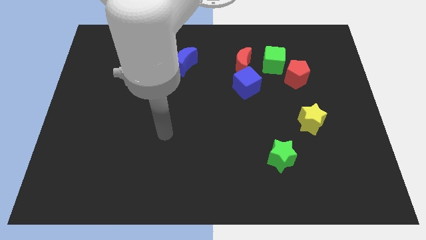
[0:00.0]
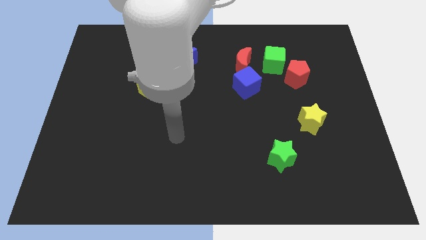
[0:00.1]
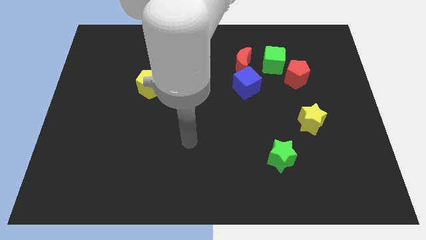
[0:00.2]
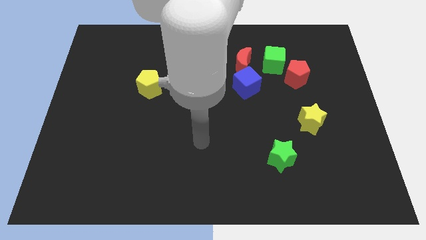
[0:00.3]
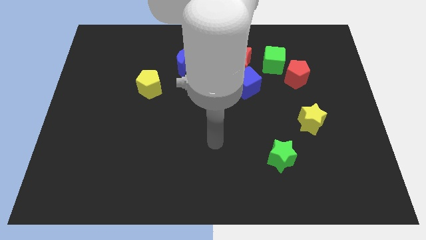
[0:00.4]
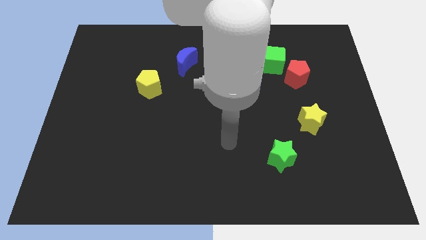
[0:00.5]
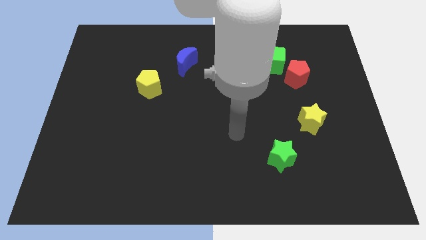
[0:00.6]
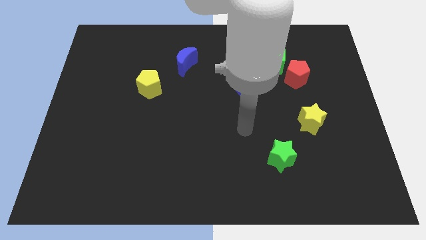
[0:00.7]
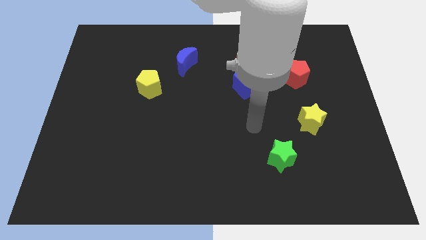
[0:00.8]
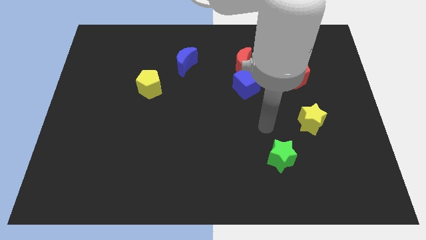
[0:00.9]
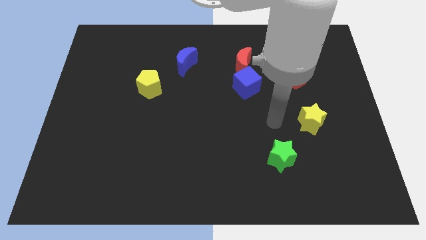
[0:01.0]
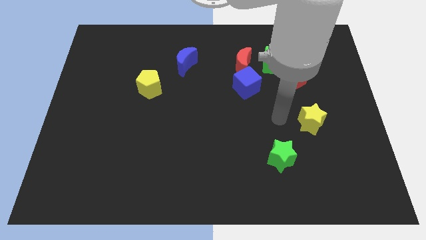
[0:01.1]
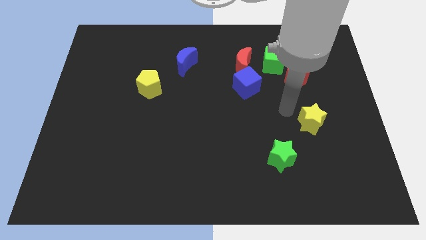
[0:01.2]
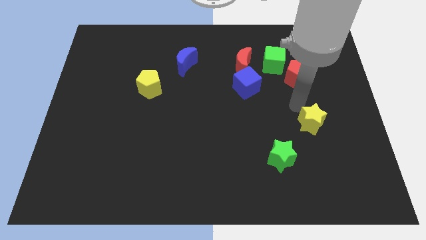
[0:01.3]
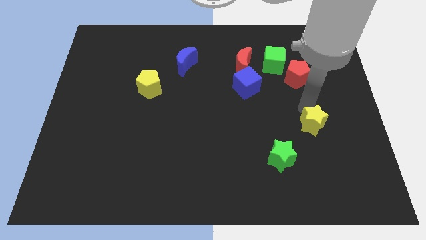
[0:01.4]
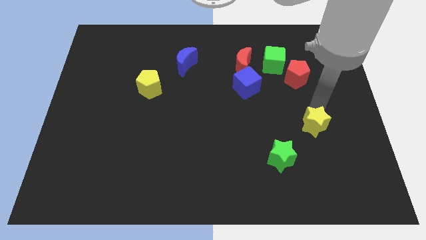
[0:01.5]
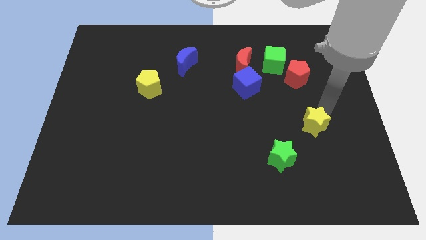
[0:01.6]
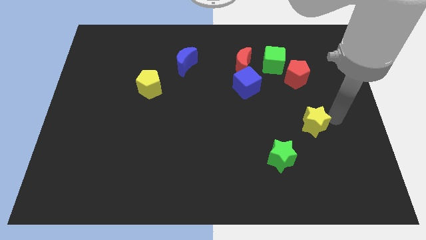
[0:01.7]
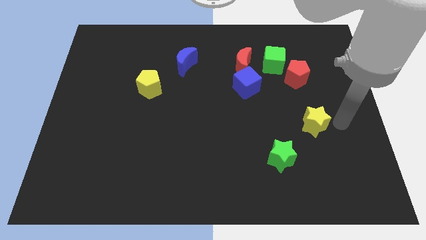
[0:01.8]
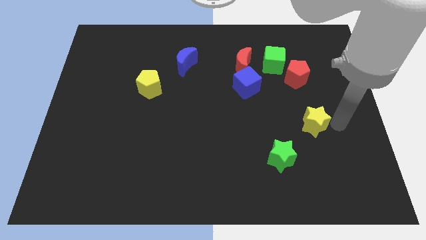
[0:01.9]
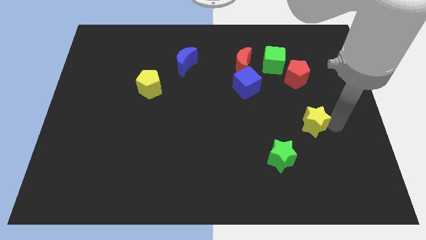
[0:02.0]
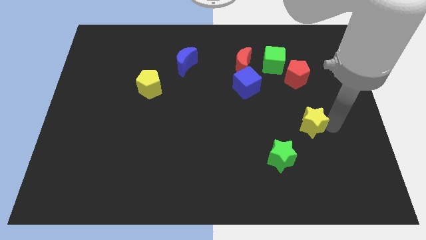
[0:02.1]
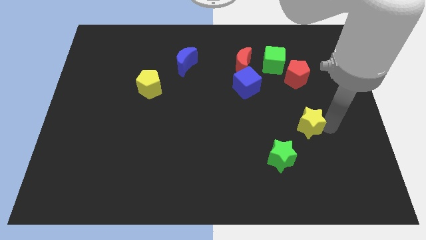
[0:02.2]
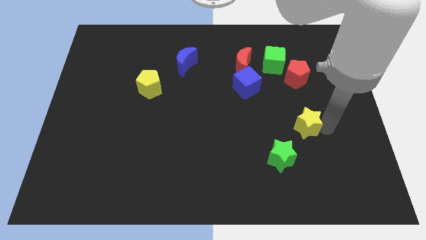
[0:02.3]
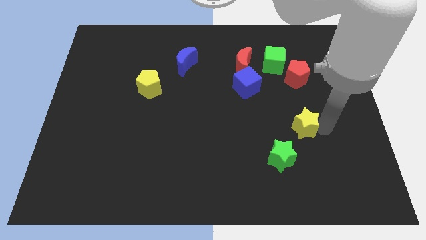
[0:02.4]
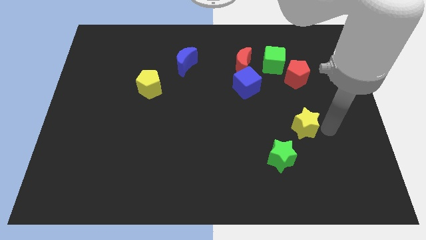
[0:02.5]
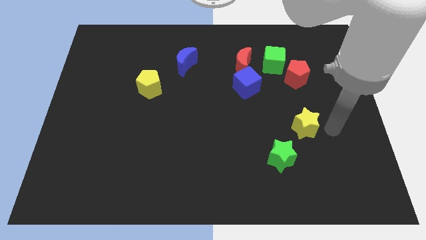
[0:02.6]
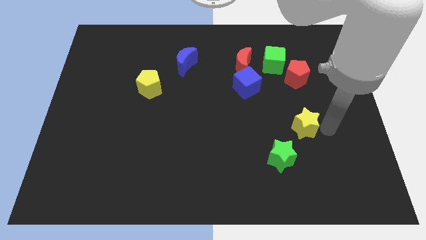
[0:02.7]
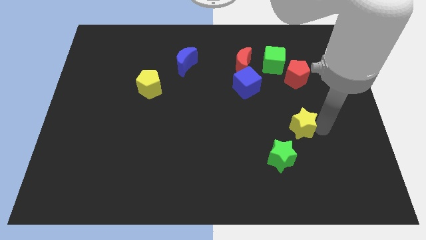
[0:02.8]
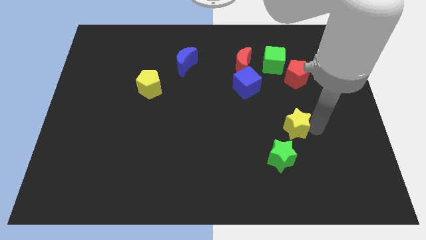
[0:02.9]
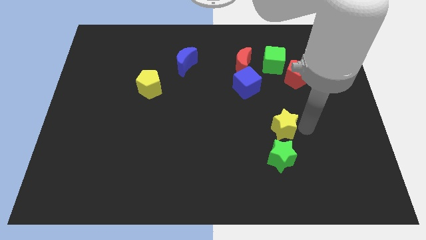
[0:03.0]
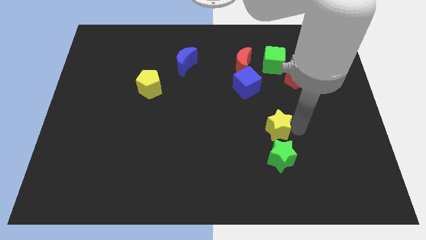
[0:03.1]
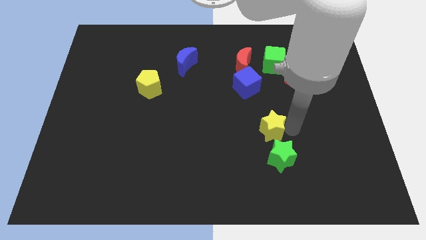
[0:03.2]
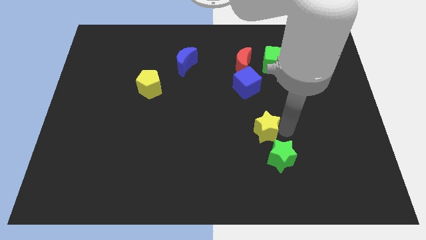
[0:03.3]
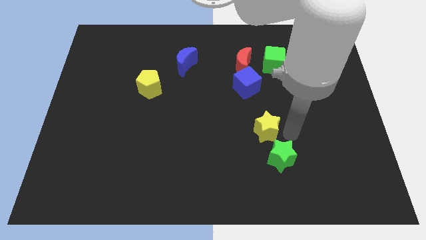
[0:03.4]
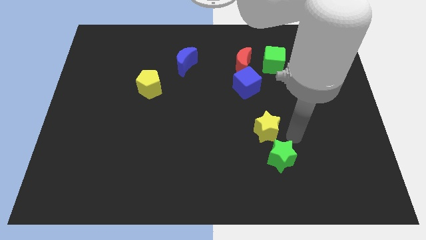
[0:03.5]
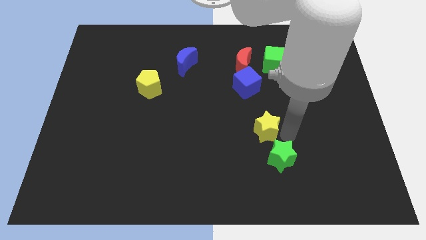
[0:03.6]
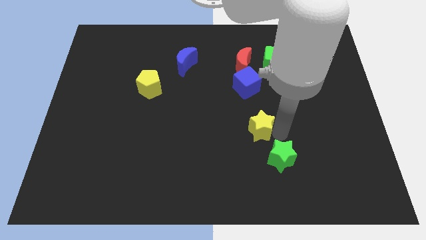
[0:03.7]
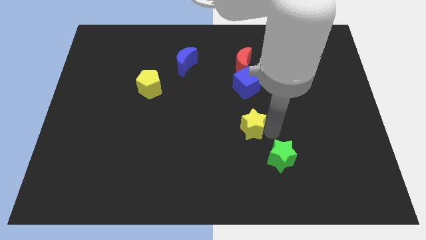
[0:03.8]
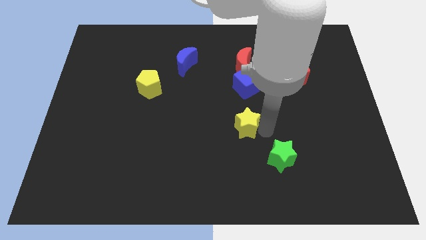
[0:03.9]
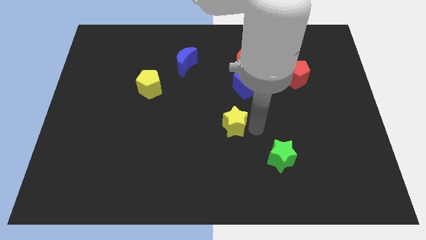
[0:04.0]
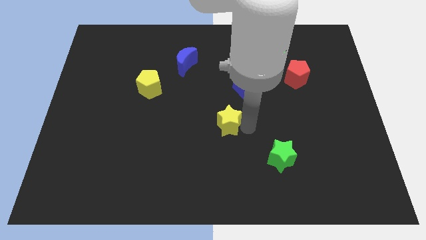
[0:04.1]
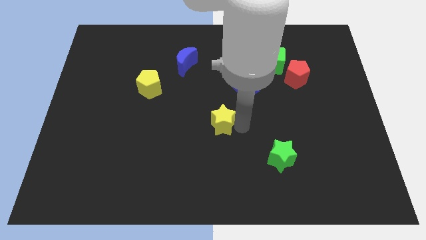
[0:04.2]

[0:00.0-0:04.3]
slide the yellow star left

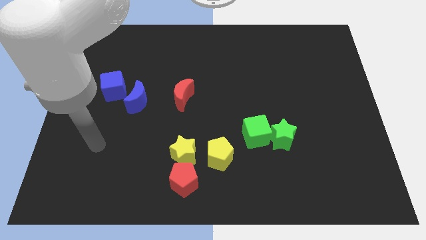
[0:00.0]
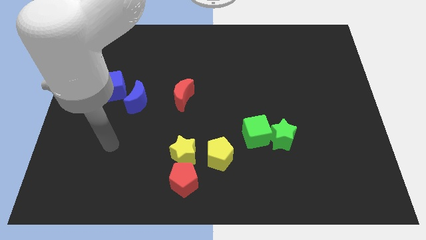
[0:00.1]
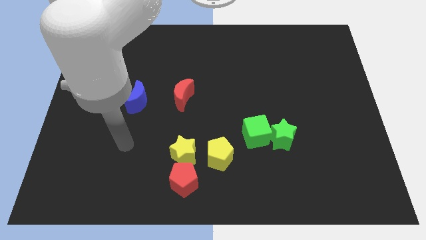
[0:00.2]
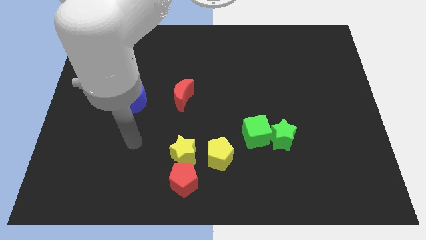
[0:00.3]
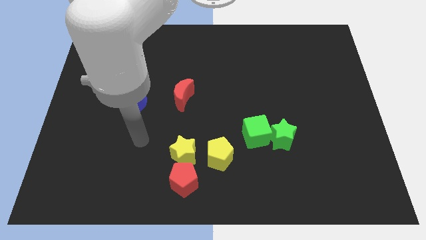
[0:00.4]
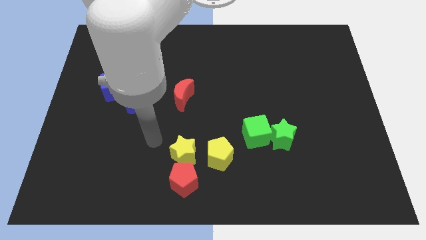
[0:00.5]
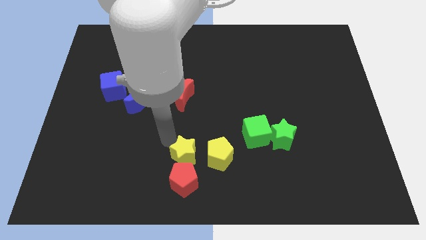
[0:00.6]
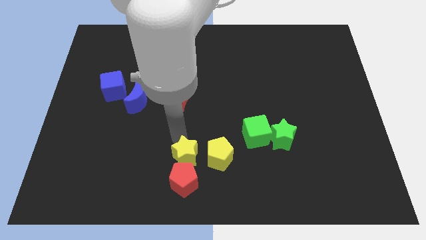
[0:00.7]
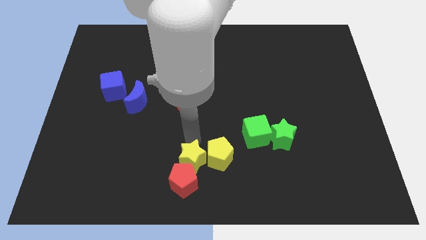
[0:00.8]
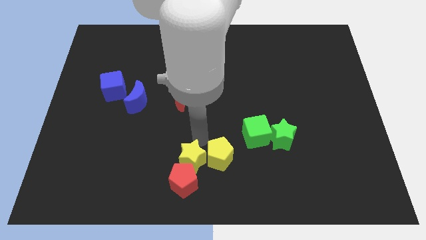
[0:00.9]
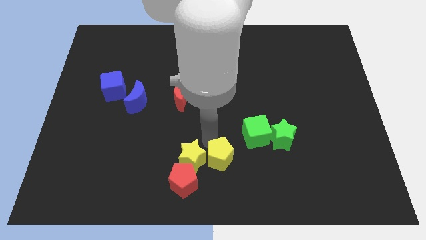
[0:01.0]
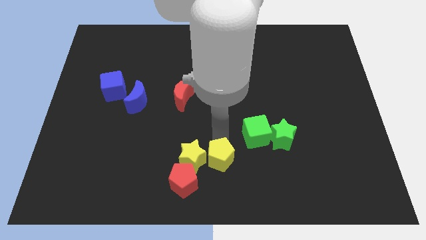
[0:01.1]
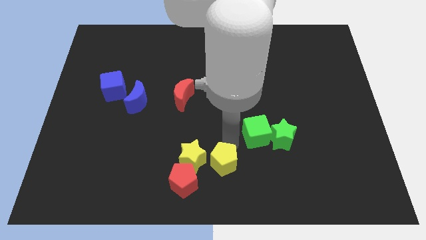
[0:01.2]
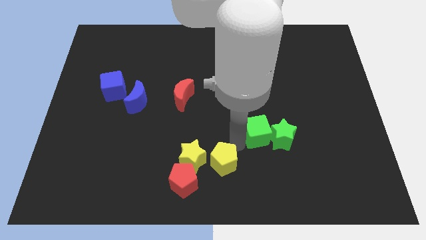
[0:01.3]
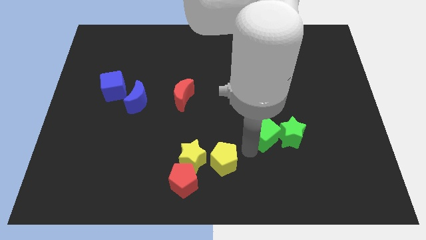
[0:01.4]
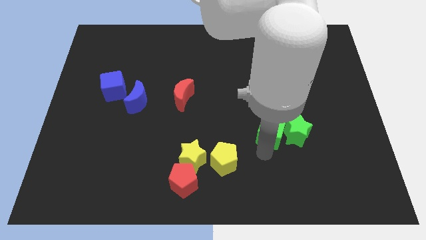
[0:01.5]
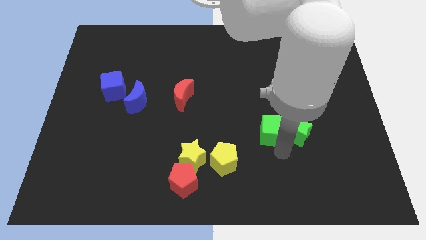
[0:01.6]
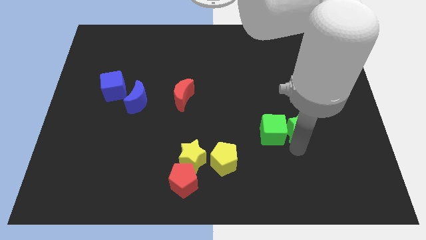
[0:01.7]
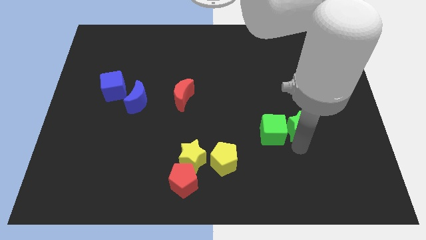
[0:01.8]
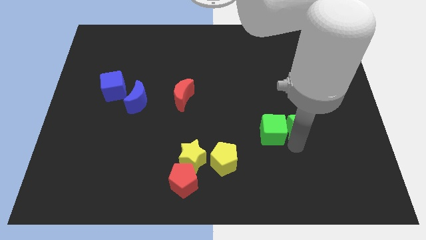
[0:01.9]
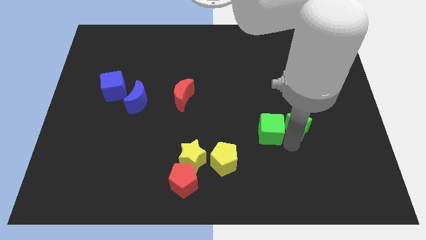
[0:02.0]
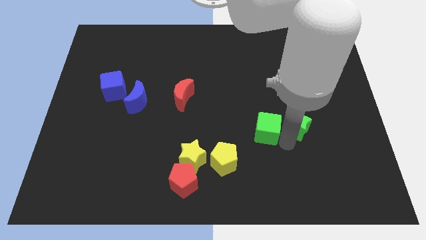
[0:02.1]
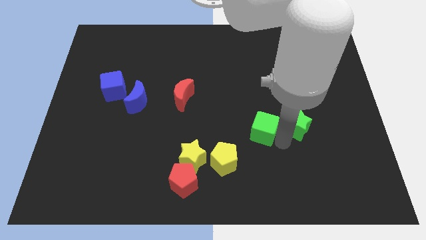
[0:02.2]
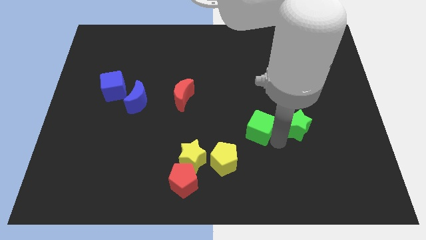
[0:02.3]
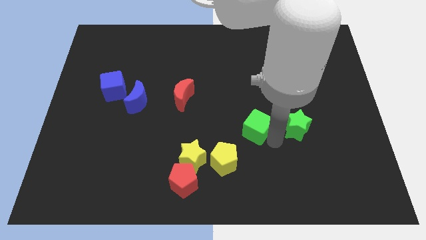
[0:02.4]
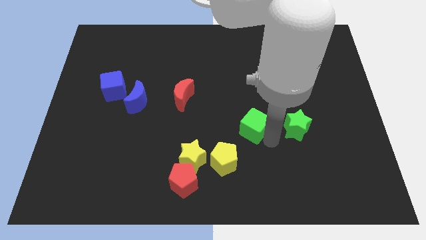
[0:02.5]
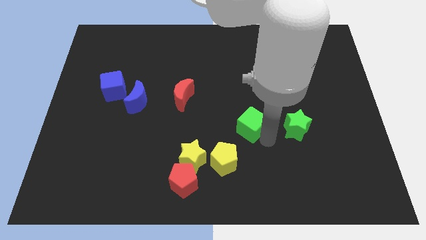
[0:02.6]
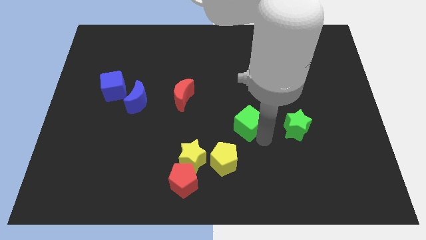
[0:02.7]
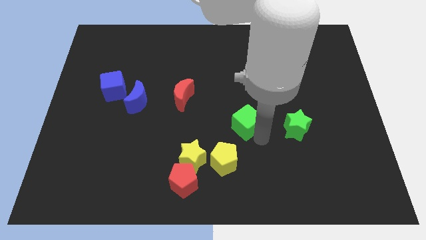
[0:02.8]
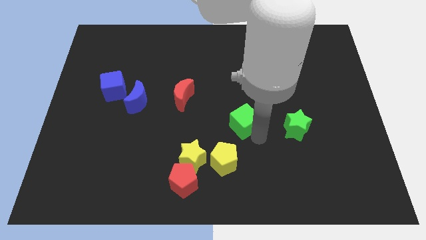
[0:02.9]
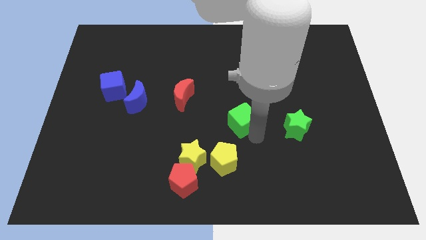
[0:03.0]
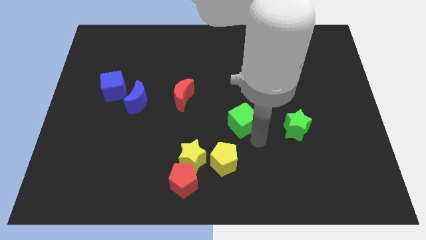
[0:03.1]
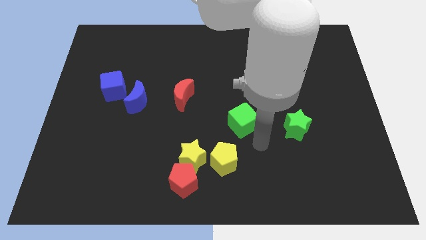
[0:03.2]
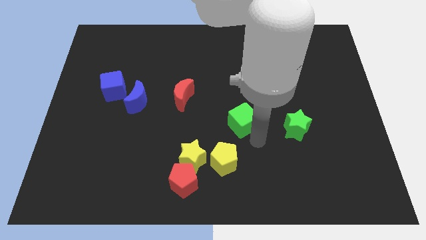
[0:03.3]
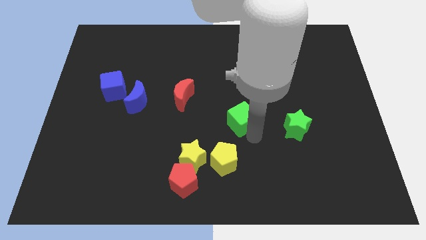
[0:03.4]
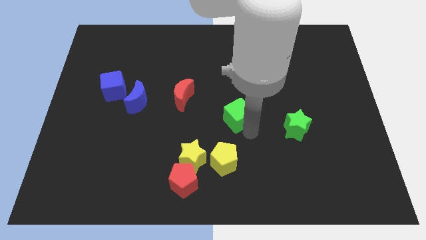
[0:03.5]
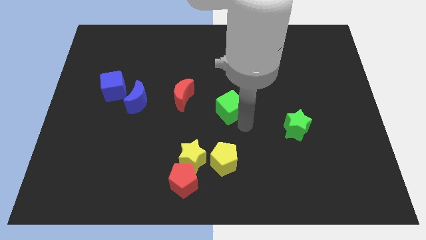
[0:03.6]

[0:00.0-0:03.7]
slide the green cube a little bit upwards and to the left
